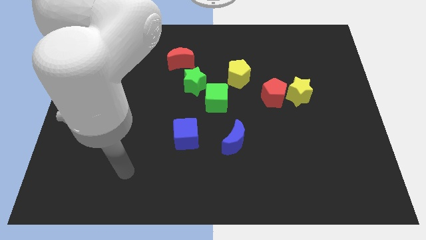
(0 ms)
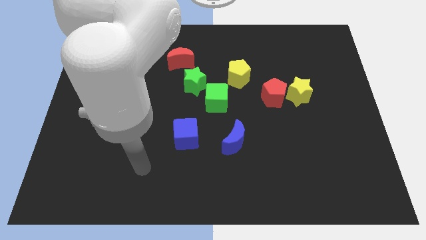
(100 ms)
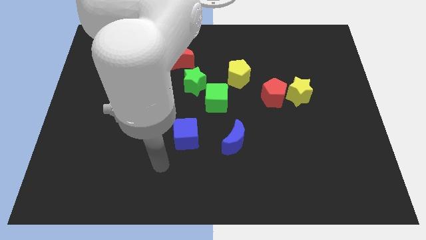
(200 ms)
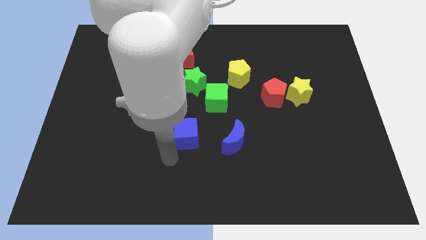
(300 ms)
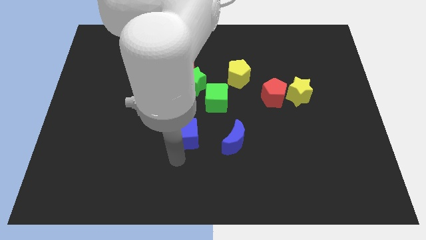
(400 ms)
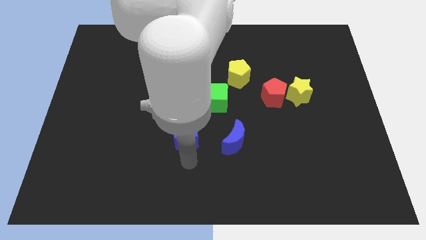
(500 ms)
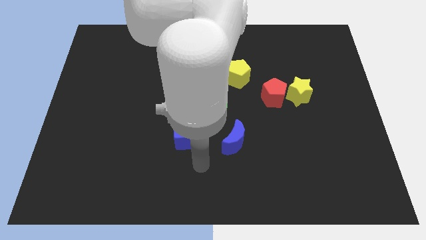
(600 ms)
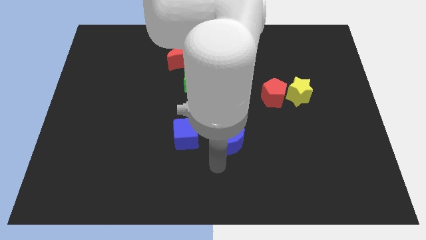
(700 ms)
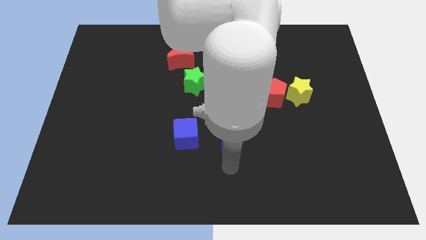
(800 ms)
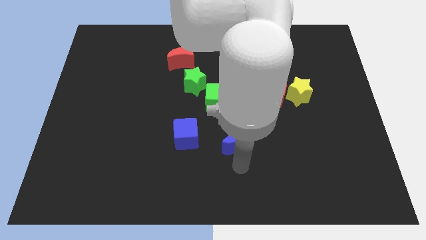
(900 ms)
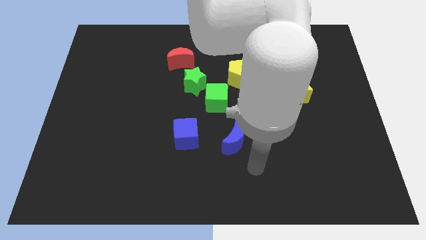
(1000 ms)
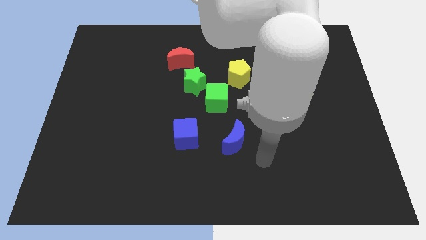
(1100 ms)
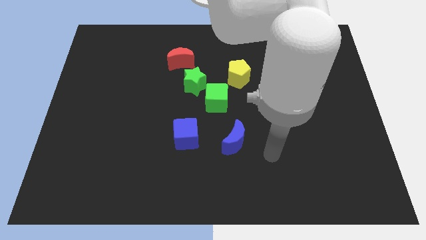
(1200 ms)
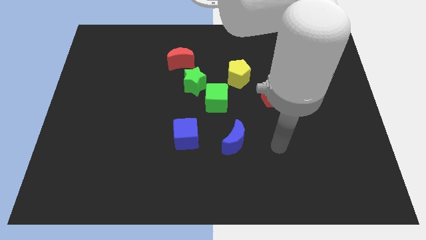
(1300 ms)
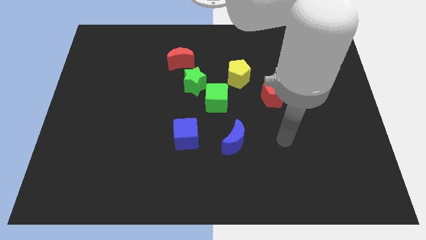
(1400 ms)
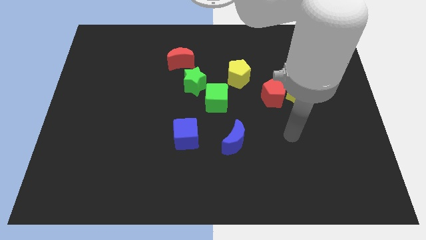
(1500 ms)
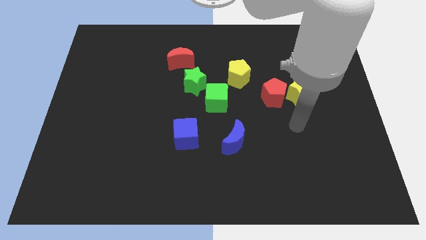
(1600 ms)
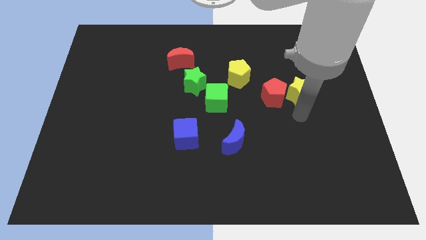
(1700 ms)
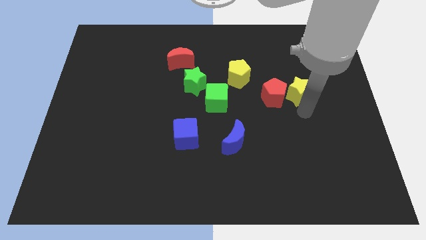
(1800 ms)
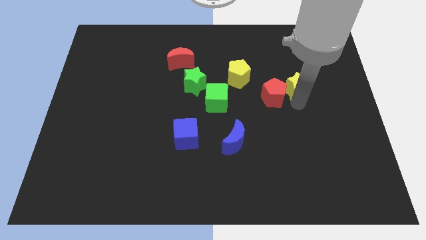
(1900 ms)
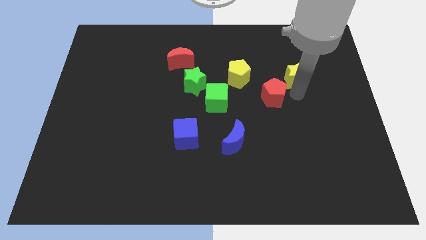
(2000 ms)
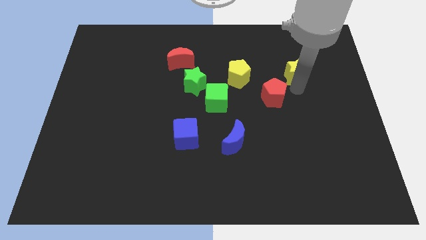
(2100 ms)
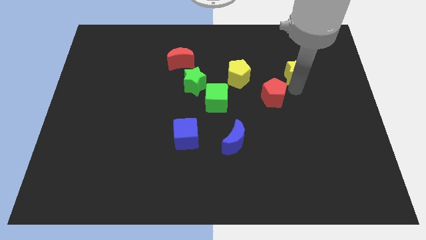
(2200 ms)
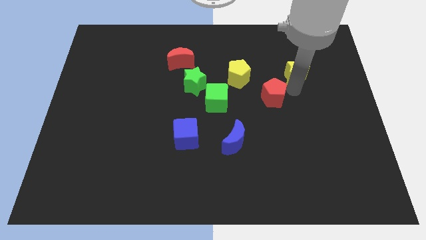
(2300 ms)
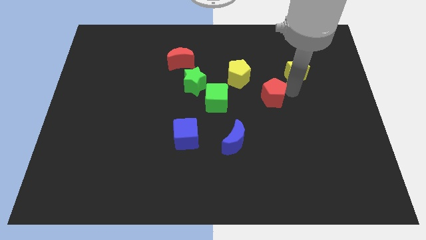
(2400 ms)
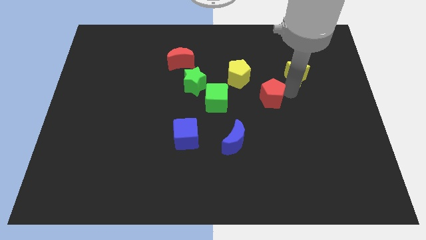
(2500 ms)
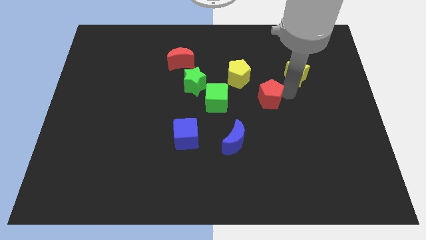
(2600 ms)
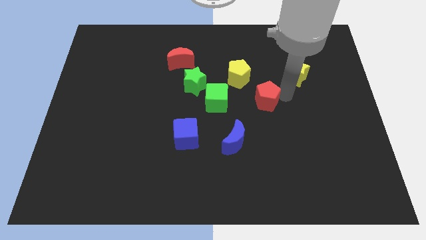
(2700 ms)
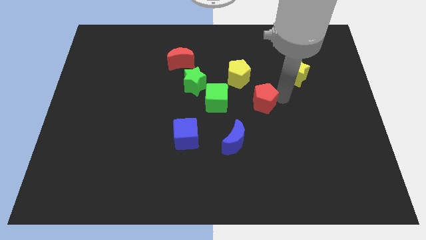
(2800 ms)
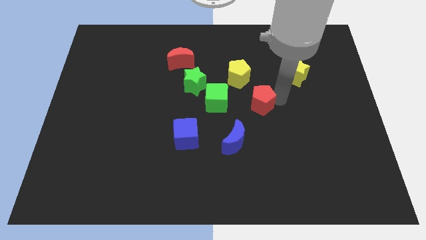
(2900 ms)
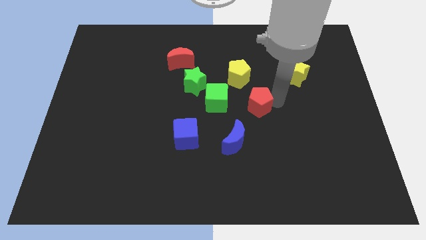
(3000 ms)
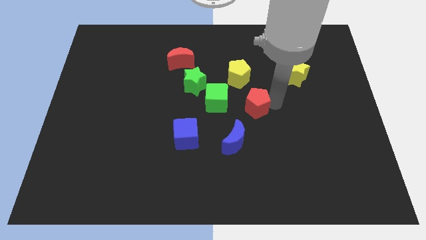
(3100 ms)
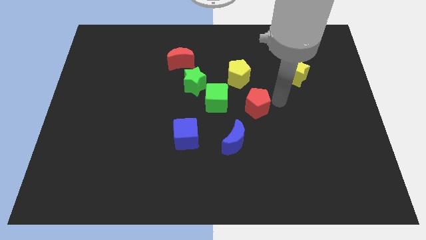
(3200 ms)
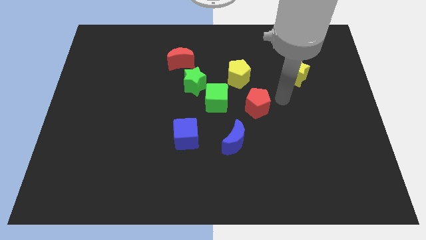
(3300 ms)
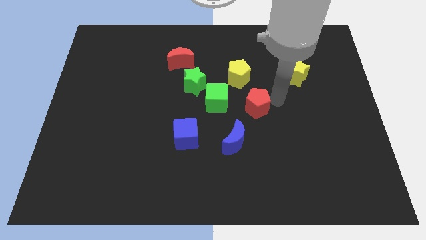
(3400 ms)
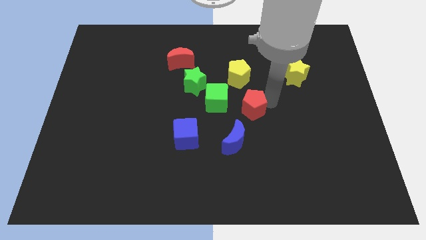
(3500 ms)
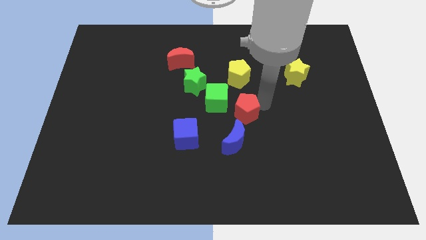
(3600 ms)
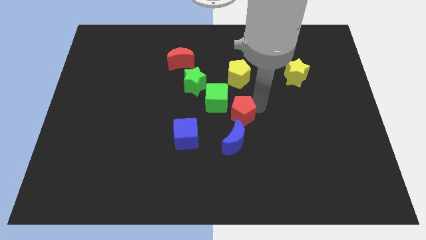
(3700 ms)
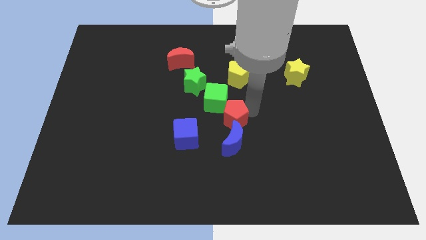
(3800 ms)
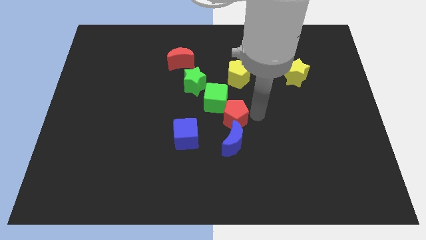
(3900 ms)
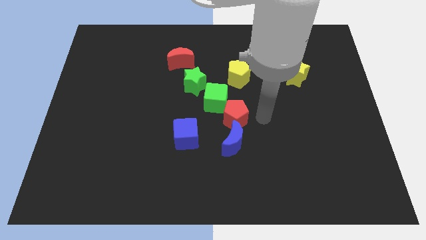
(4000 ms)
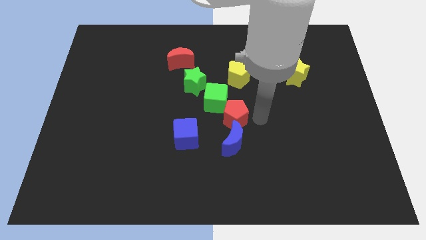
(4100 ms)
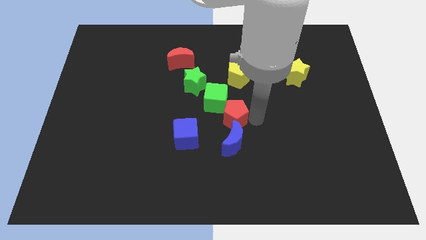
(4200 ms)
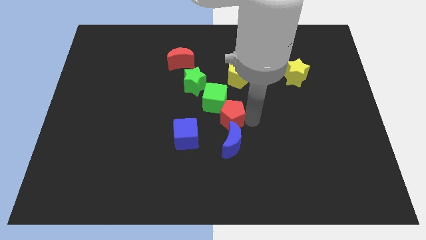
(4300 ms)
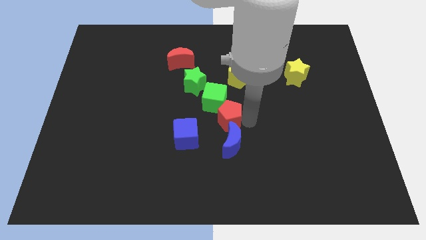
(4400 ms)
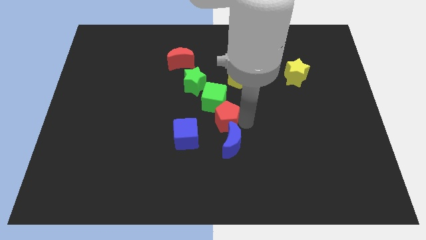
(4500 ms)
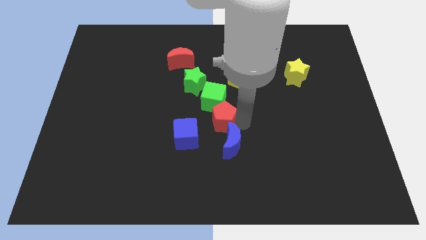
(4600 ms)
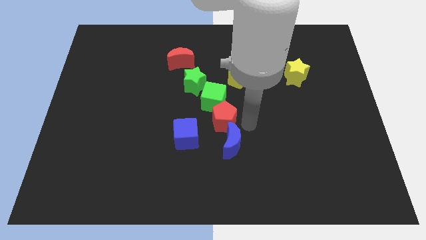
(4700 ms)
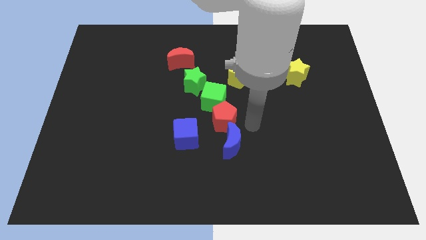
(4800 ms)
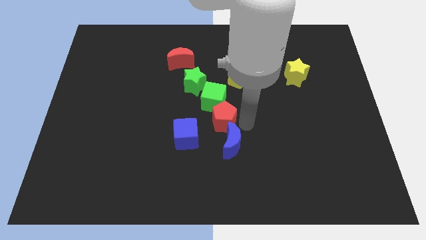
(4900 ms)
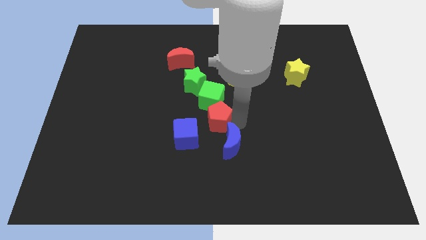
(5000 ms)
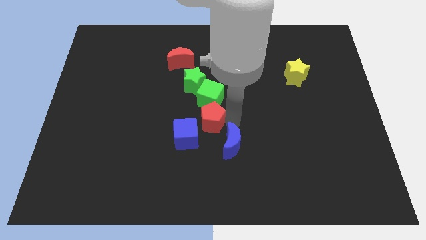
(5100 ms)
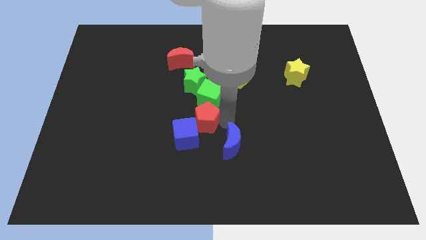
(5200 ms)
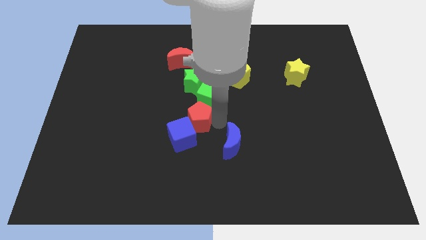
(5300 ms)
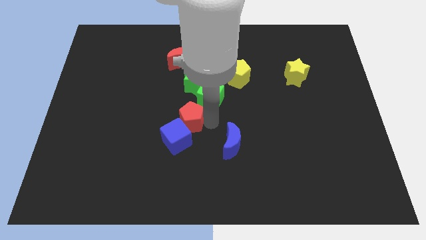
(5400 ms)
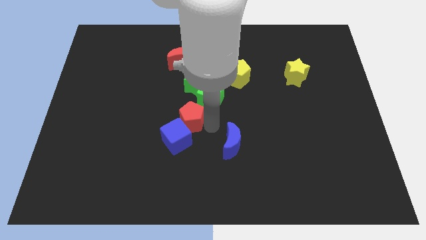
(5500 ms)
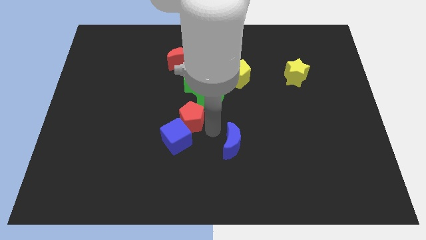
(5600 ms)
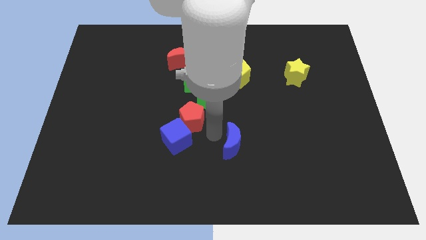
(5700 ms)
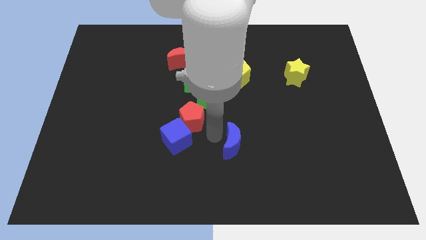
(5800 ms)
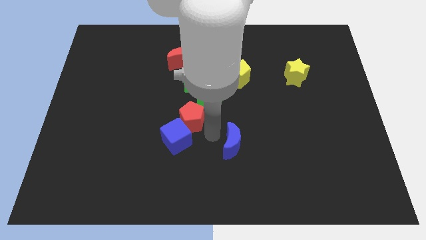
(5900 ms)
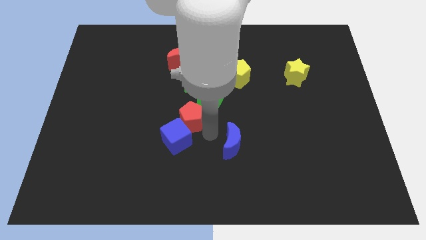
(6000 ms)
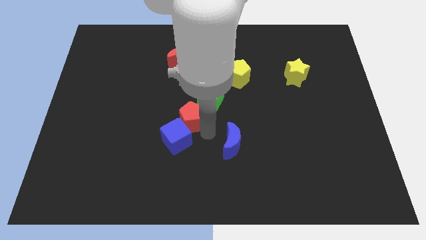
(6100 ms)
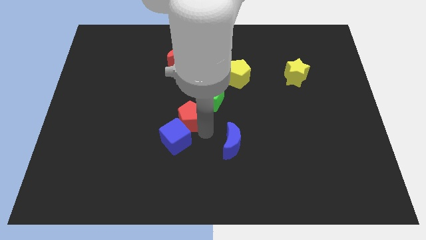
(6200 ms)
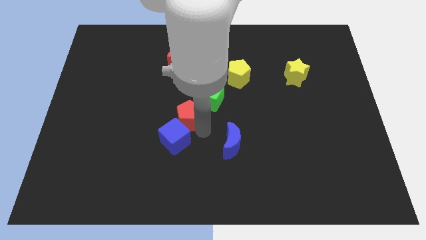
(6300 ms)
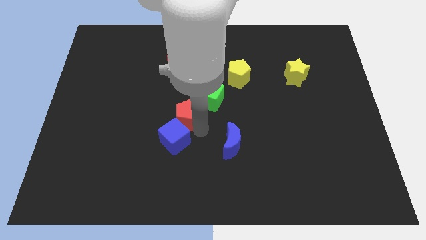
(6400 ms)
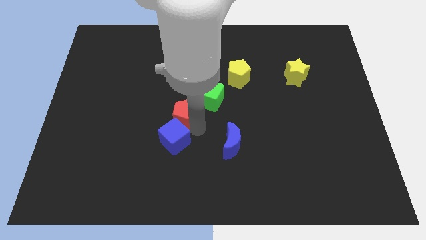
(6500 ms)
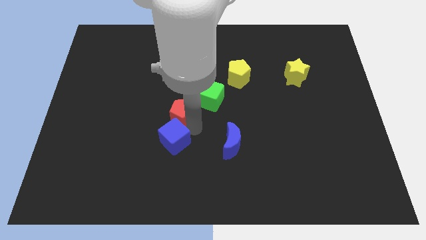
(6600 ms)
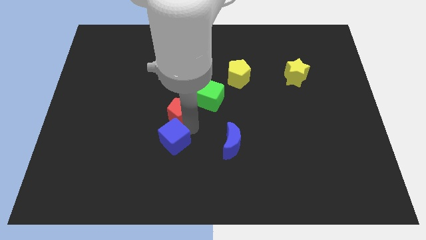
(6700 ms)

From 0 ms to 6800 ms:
push the red pentagon to the bottom left side of the green star

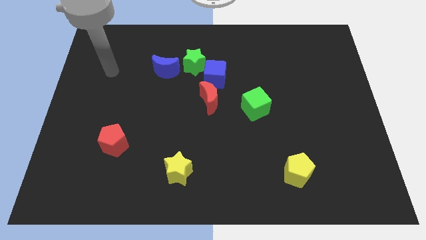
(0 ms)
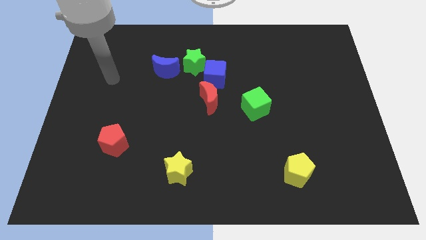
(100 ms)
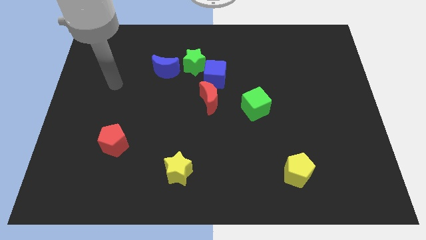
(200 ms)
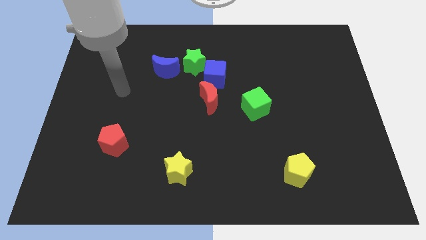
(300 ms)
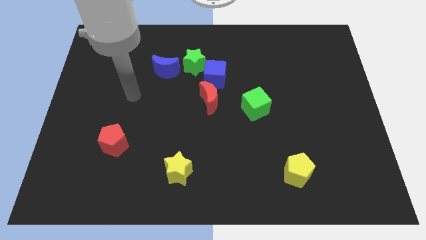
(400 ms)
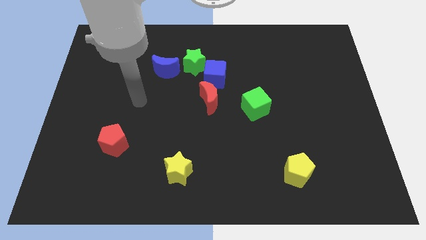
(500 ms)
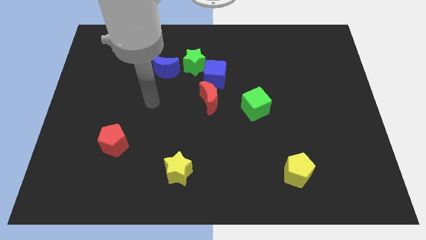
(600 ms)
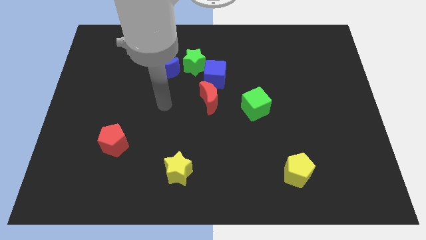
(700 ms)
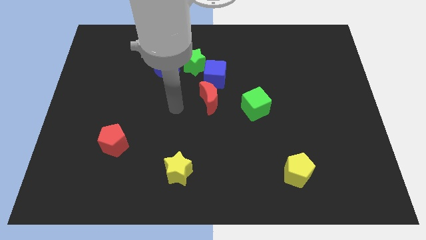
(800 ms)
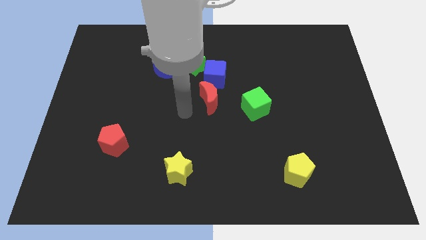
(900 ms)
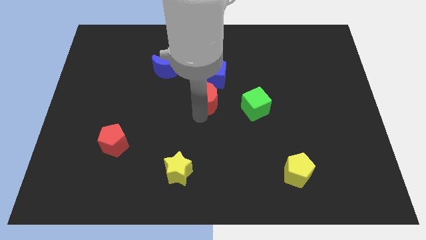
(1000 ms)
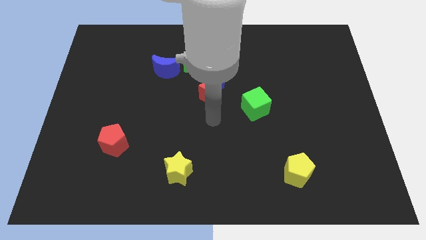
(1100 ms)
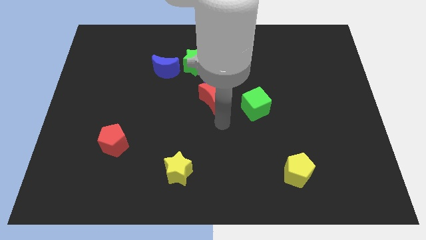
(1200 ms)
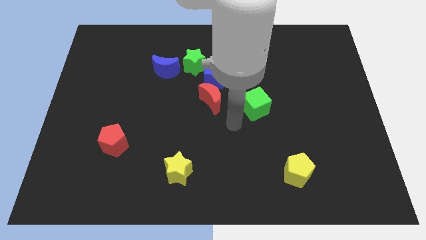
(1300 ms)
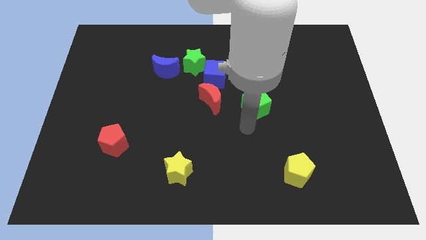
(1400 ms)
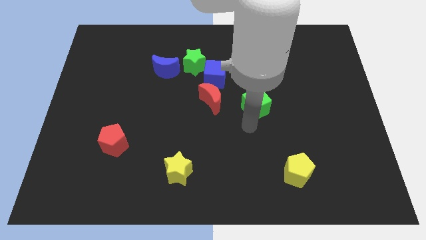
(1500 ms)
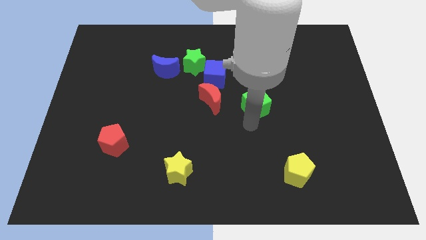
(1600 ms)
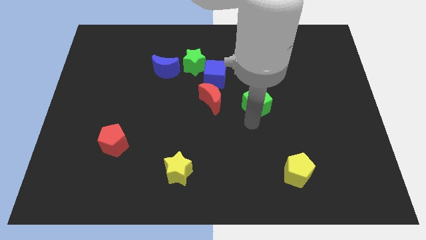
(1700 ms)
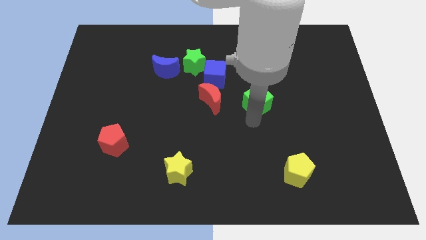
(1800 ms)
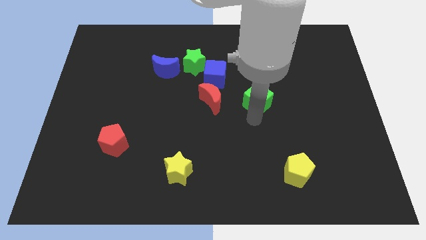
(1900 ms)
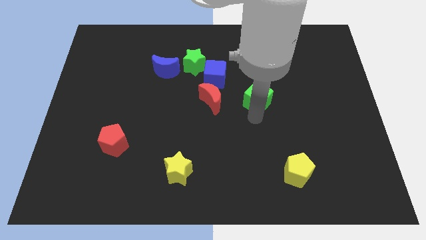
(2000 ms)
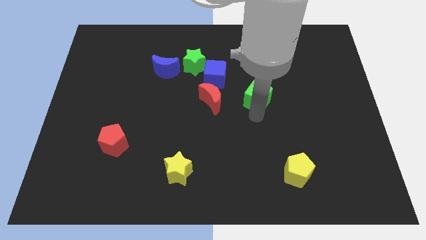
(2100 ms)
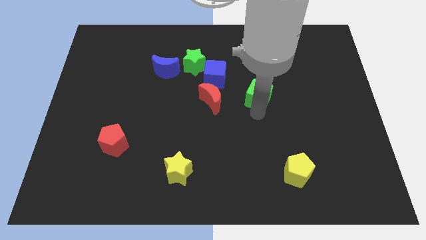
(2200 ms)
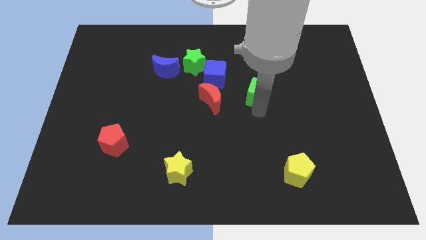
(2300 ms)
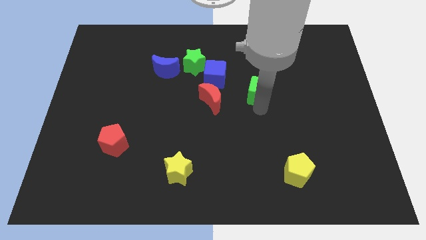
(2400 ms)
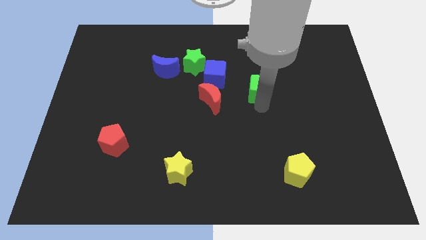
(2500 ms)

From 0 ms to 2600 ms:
push the green cube to the right of the blue cube
